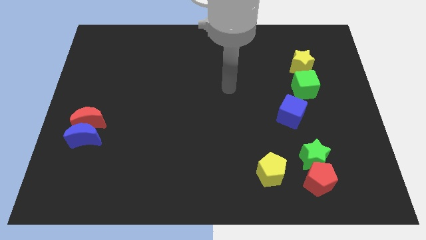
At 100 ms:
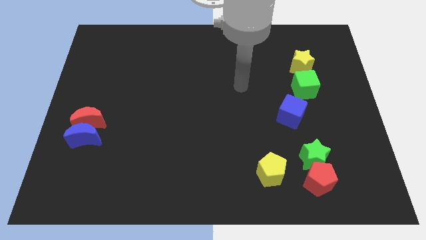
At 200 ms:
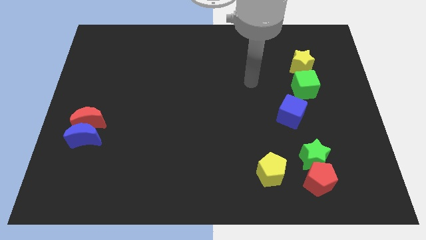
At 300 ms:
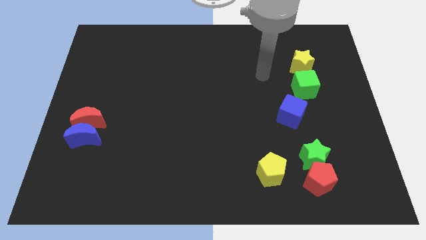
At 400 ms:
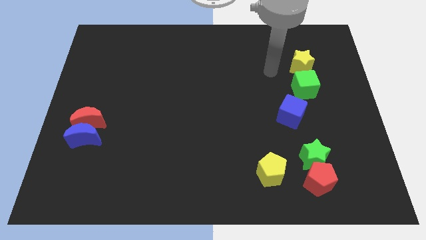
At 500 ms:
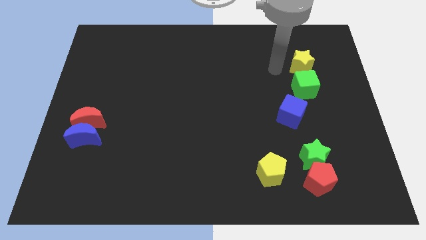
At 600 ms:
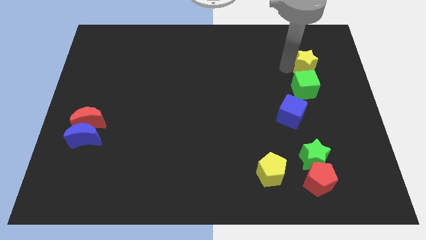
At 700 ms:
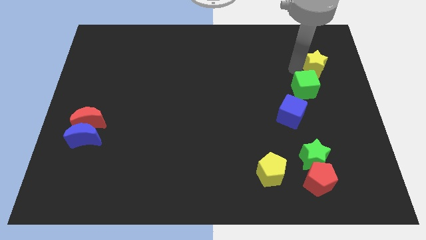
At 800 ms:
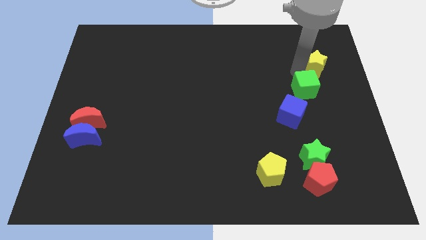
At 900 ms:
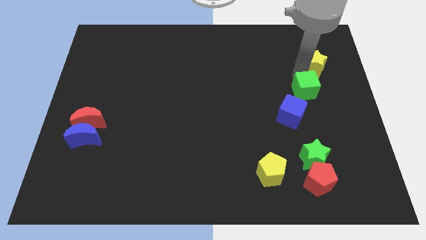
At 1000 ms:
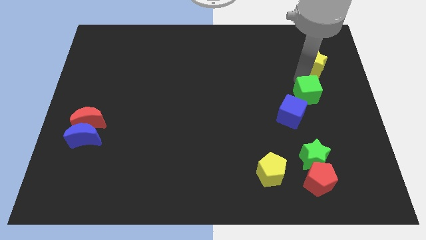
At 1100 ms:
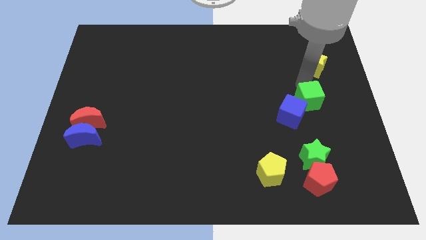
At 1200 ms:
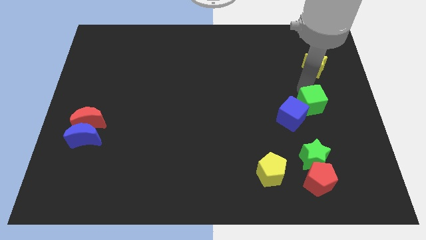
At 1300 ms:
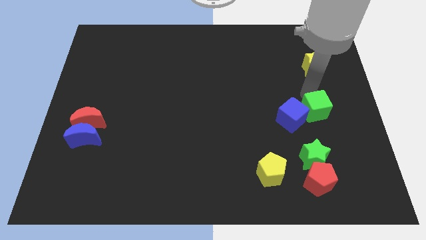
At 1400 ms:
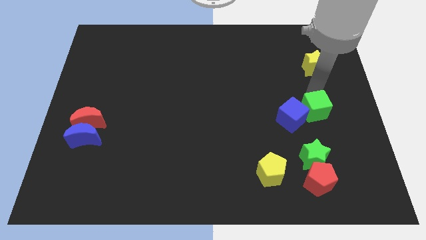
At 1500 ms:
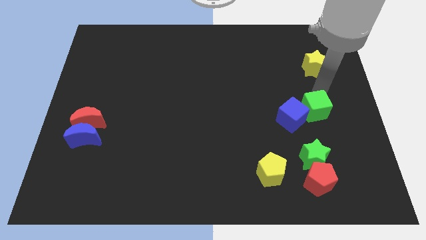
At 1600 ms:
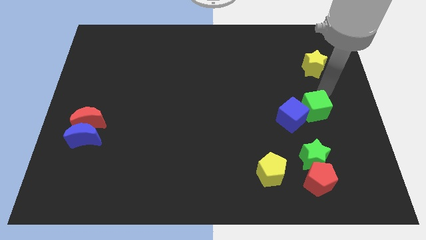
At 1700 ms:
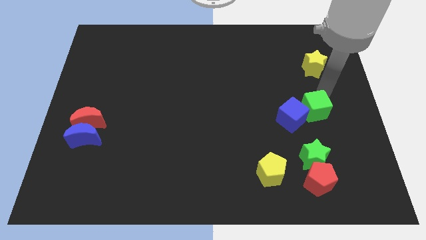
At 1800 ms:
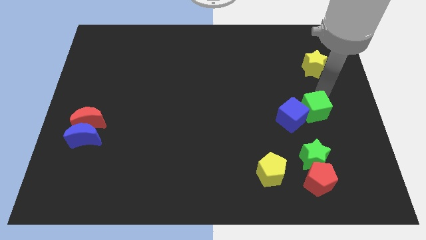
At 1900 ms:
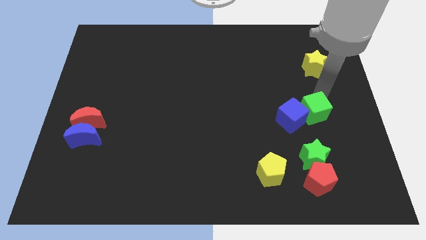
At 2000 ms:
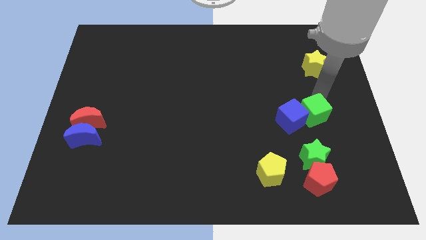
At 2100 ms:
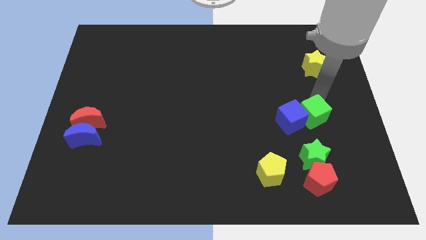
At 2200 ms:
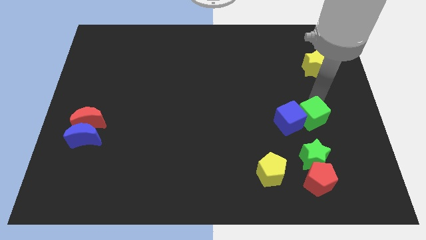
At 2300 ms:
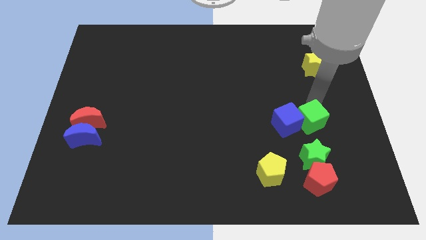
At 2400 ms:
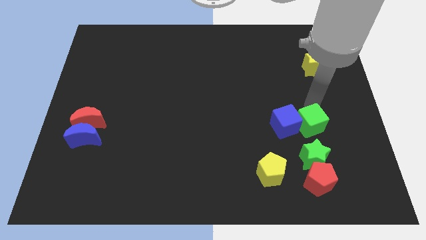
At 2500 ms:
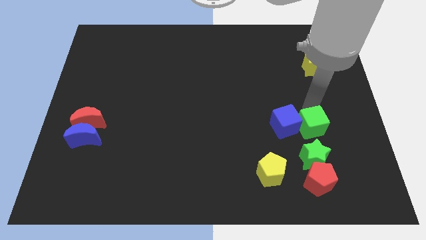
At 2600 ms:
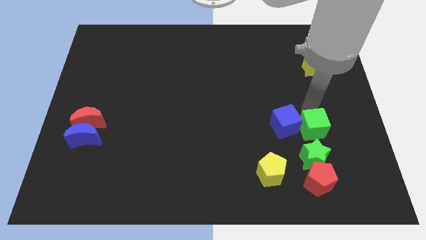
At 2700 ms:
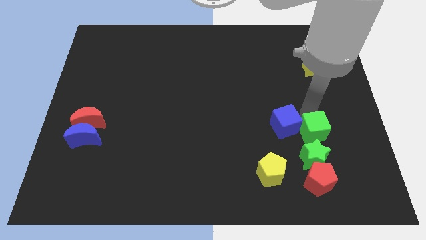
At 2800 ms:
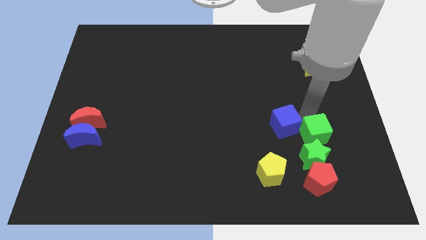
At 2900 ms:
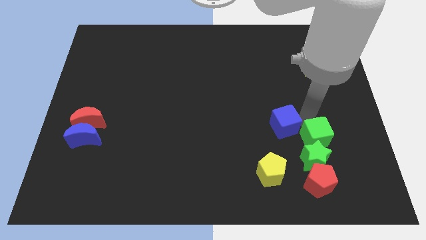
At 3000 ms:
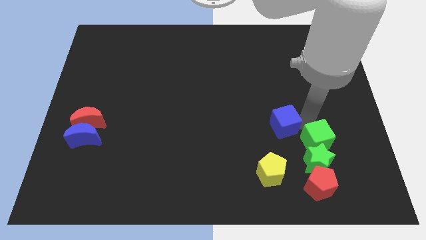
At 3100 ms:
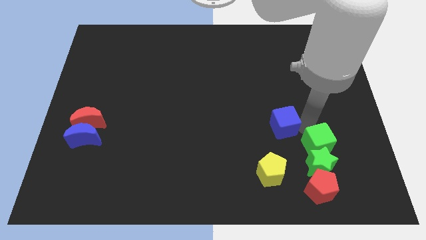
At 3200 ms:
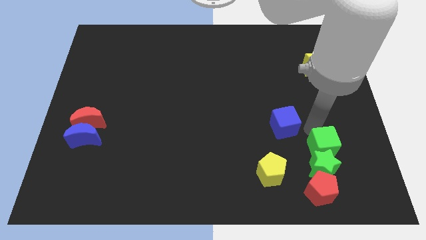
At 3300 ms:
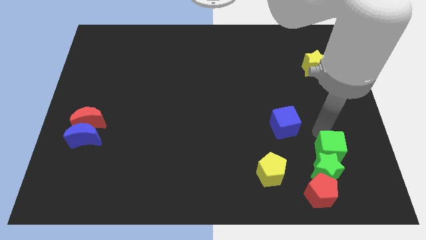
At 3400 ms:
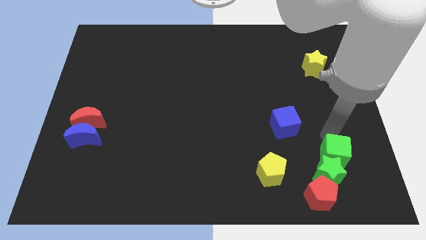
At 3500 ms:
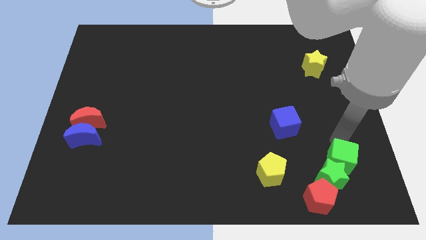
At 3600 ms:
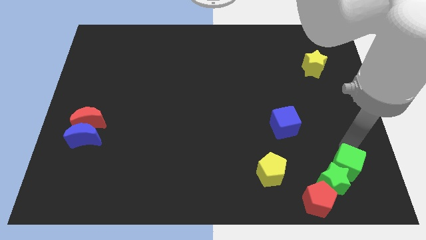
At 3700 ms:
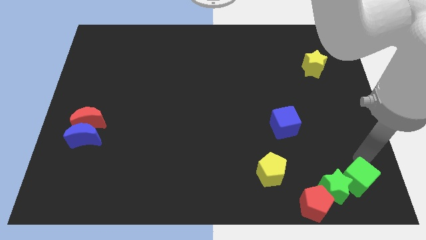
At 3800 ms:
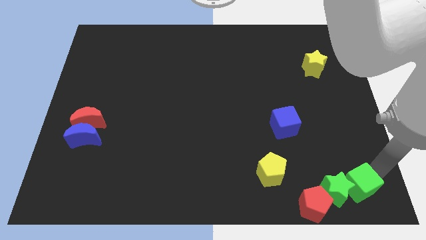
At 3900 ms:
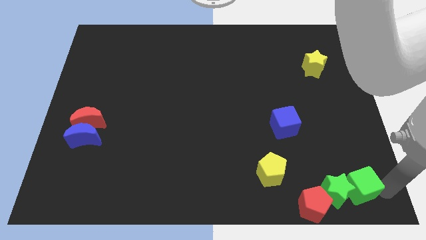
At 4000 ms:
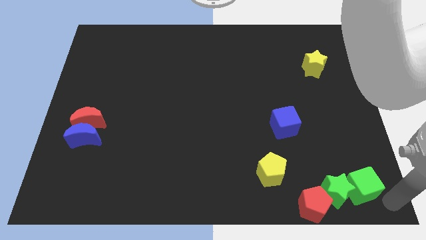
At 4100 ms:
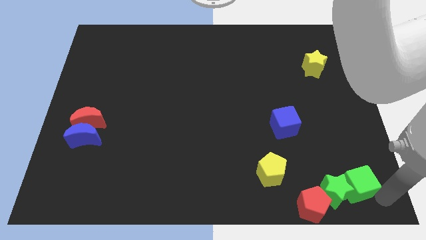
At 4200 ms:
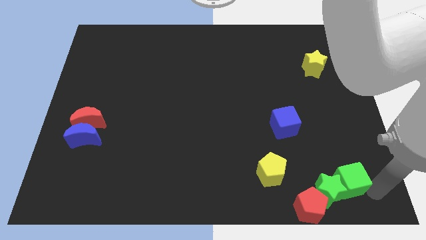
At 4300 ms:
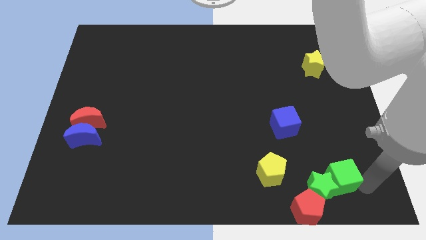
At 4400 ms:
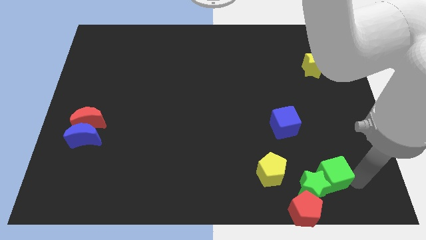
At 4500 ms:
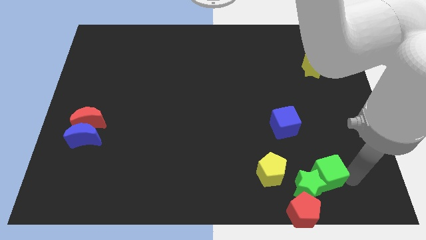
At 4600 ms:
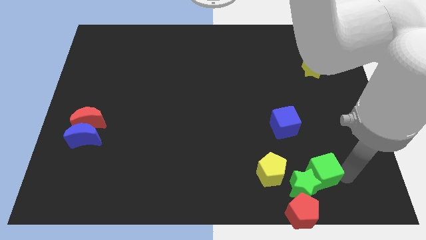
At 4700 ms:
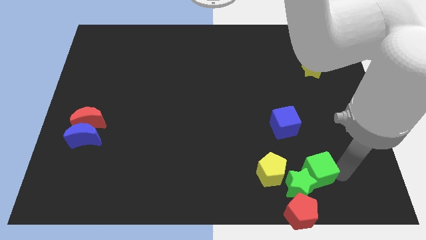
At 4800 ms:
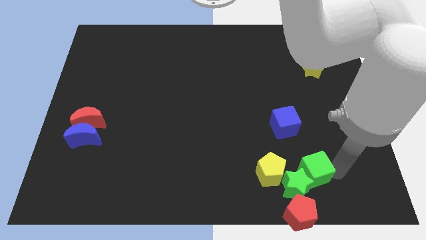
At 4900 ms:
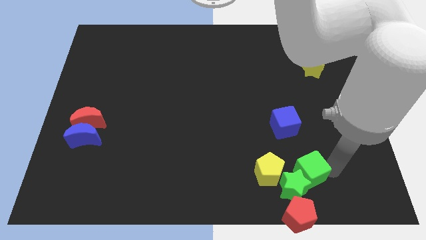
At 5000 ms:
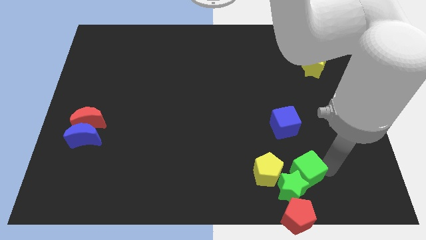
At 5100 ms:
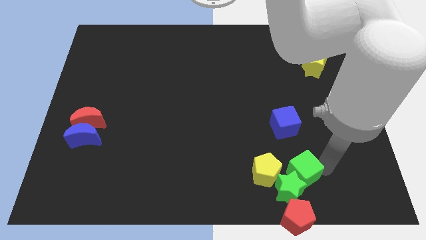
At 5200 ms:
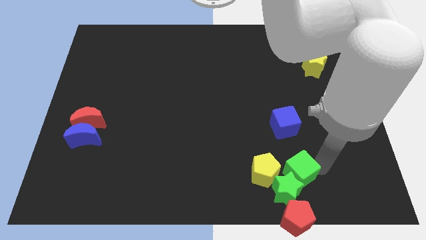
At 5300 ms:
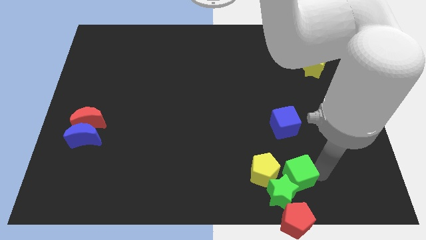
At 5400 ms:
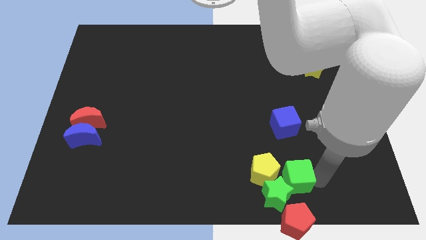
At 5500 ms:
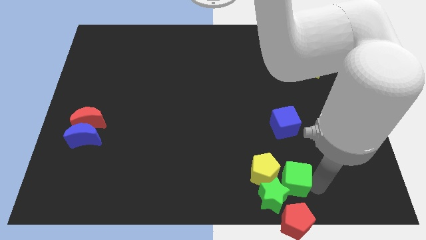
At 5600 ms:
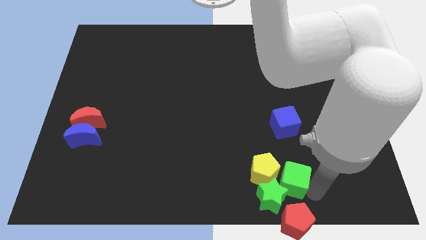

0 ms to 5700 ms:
move the green cube next to the yellow pentagon

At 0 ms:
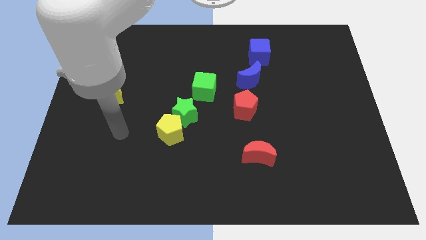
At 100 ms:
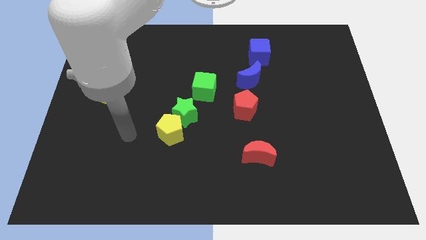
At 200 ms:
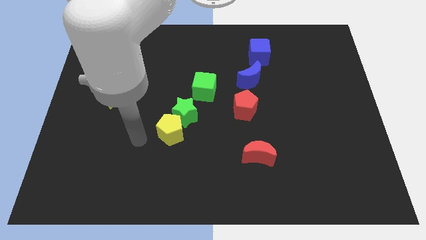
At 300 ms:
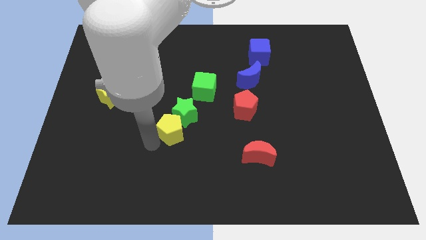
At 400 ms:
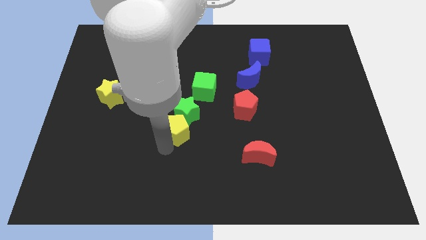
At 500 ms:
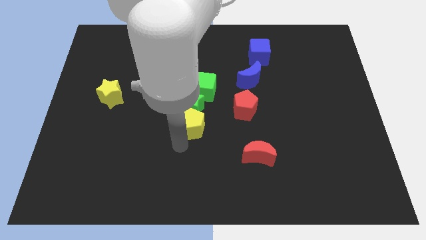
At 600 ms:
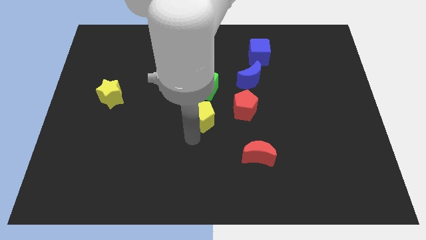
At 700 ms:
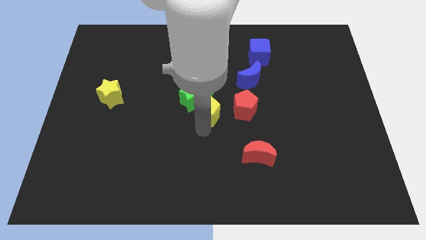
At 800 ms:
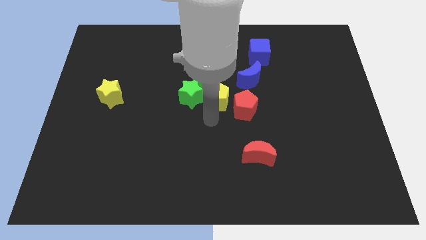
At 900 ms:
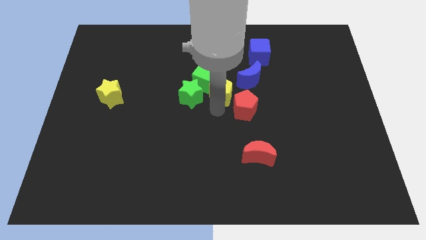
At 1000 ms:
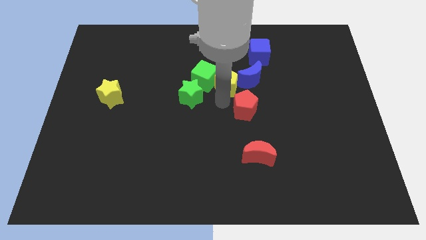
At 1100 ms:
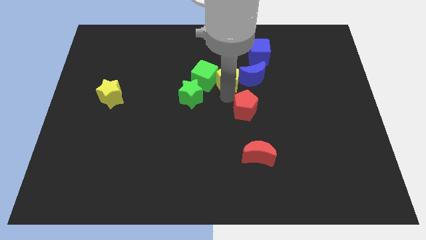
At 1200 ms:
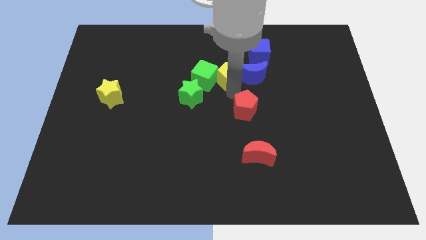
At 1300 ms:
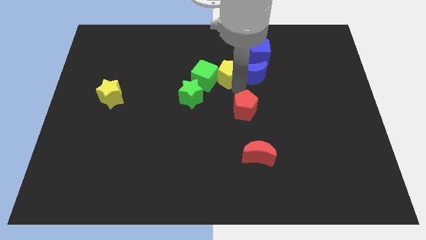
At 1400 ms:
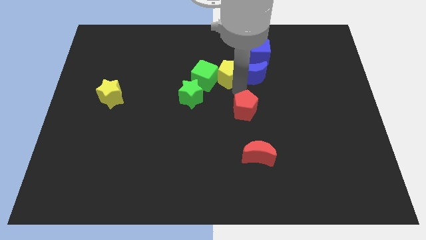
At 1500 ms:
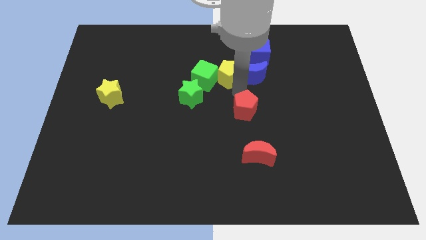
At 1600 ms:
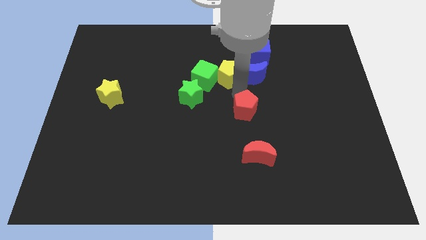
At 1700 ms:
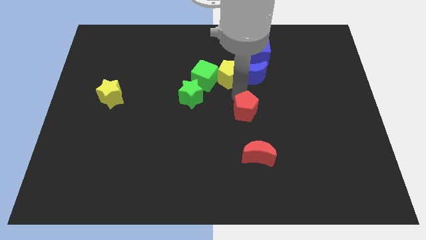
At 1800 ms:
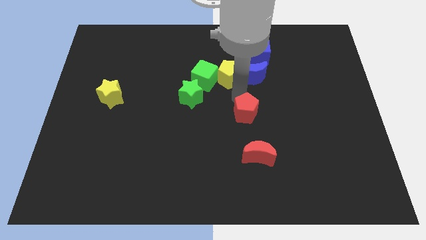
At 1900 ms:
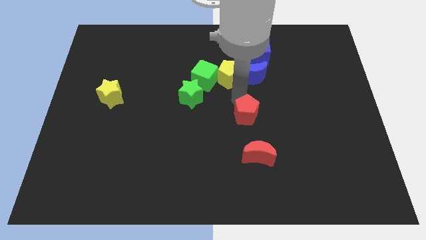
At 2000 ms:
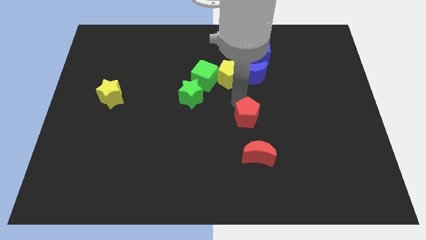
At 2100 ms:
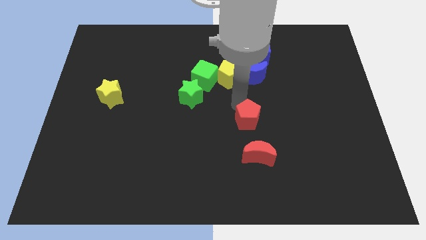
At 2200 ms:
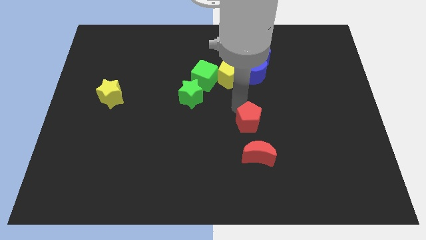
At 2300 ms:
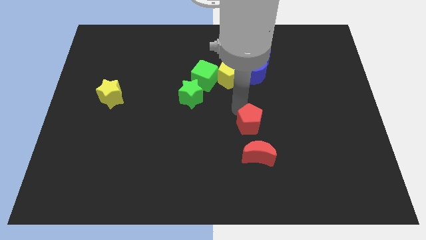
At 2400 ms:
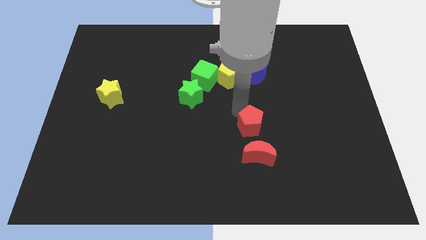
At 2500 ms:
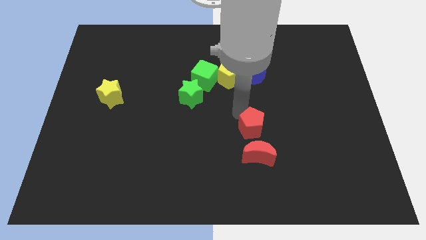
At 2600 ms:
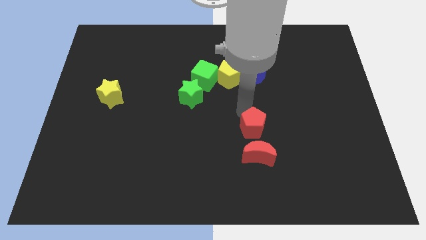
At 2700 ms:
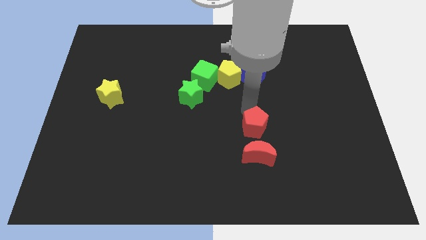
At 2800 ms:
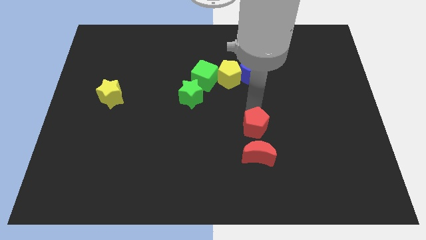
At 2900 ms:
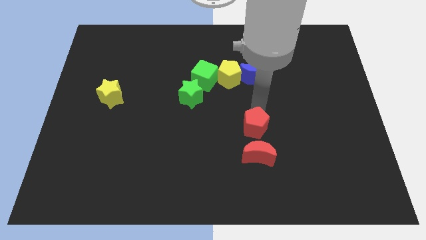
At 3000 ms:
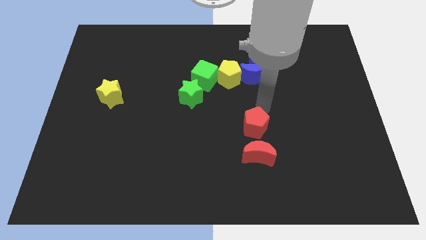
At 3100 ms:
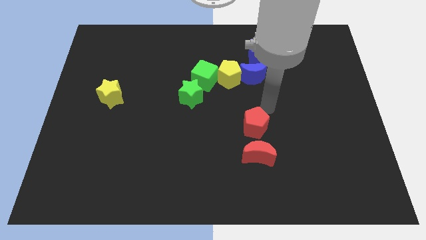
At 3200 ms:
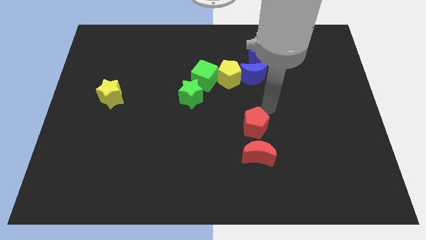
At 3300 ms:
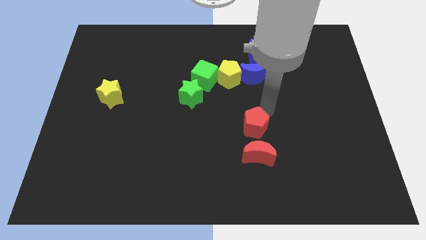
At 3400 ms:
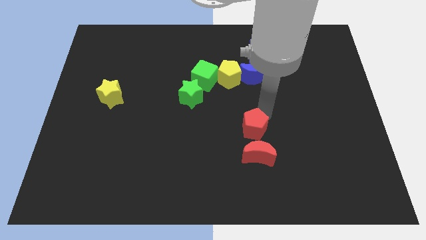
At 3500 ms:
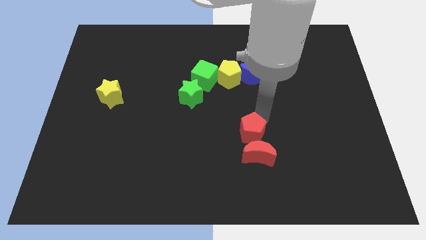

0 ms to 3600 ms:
put the red pentagon to the red moon
